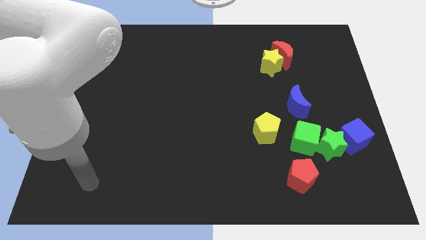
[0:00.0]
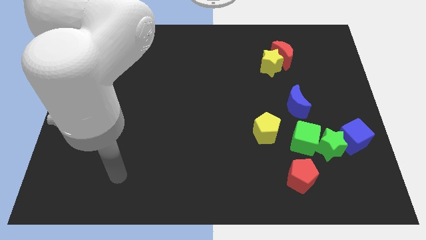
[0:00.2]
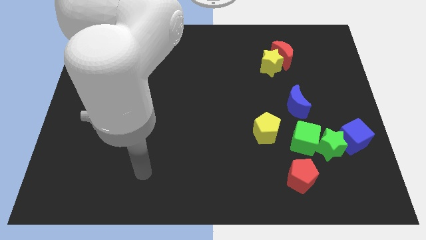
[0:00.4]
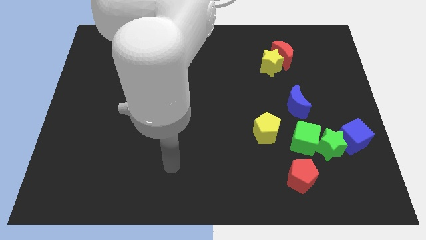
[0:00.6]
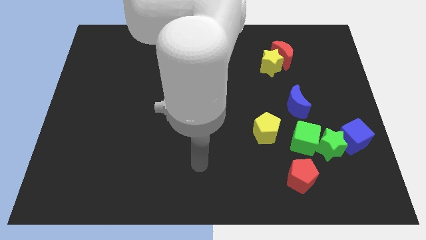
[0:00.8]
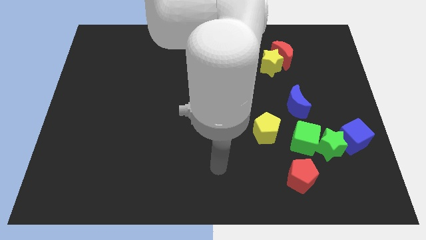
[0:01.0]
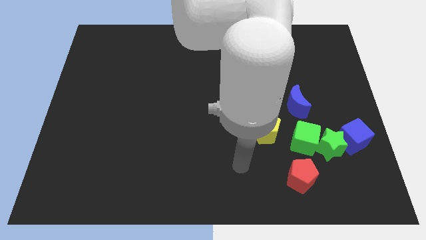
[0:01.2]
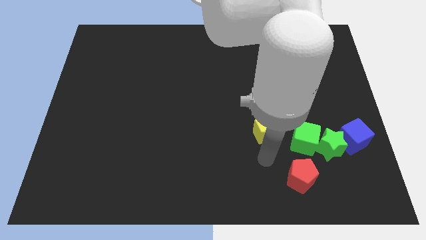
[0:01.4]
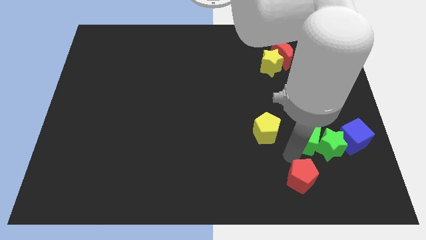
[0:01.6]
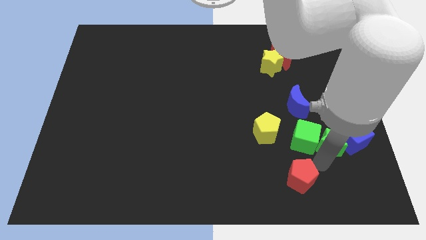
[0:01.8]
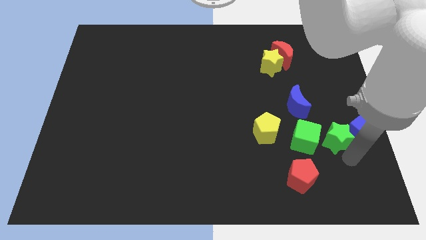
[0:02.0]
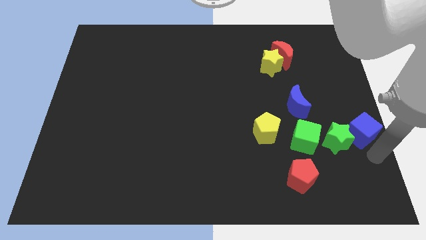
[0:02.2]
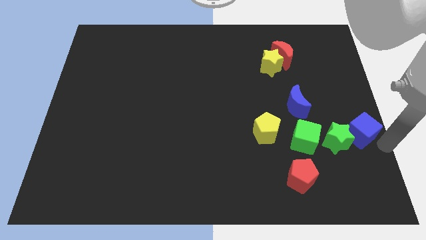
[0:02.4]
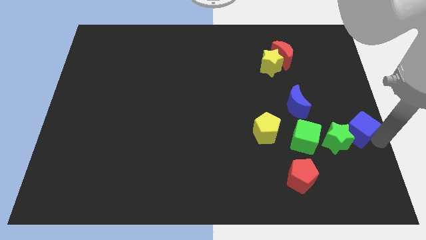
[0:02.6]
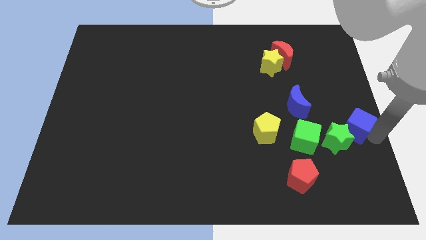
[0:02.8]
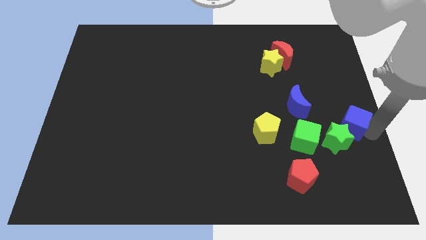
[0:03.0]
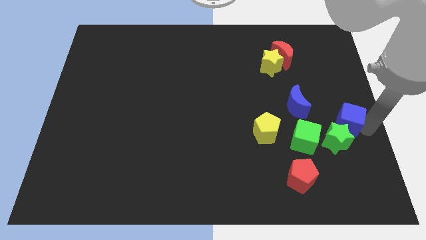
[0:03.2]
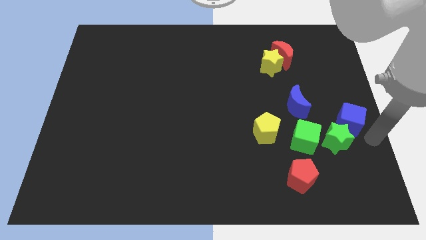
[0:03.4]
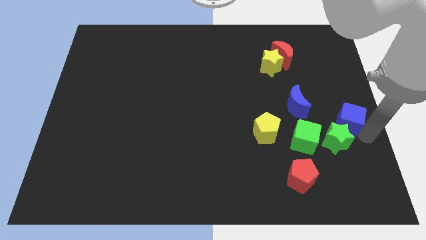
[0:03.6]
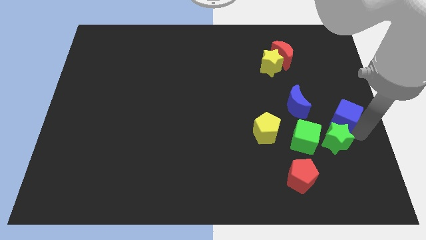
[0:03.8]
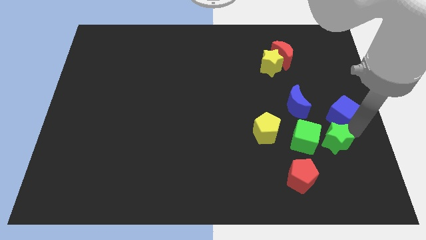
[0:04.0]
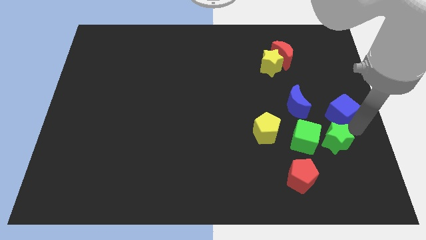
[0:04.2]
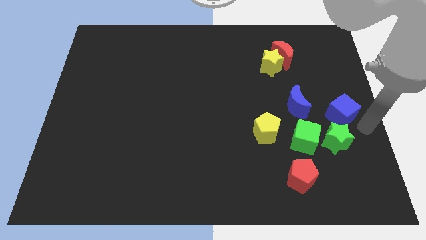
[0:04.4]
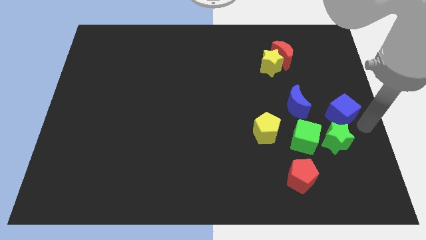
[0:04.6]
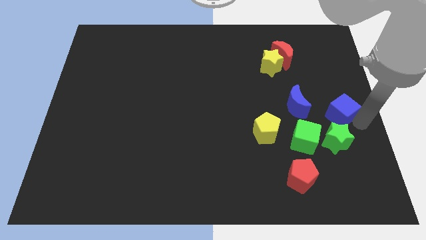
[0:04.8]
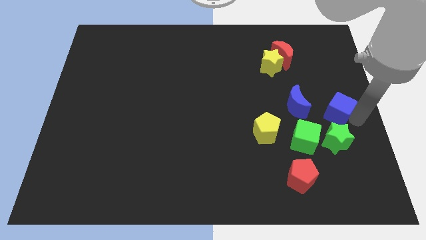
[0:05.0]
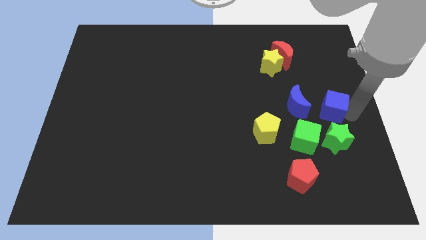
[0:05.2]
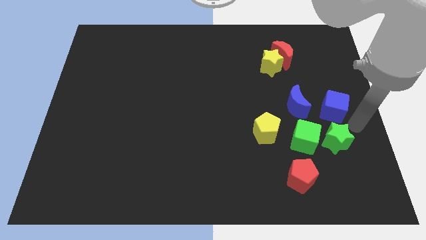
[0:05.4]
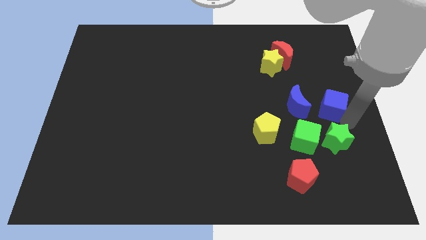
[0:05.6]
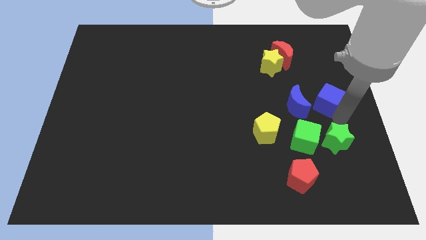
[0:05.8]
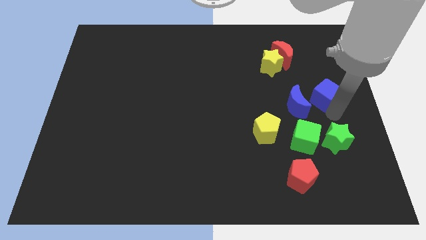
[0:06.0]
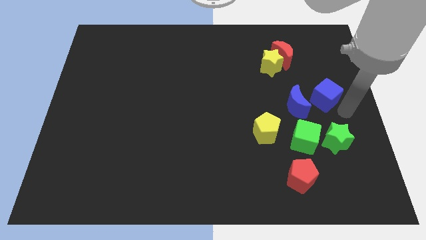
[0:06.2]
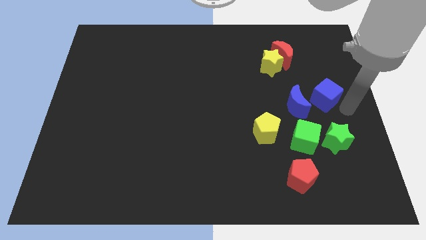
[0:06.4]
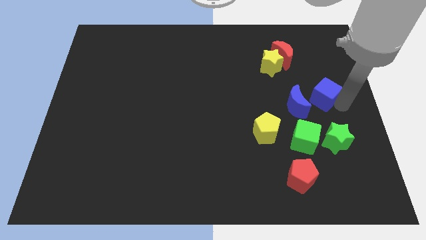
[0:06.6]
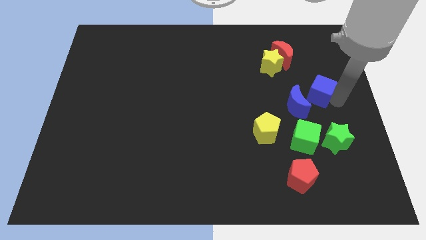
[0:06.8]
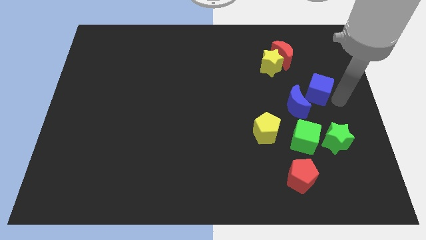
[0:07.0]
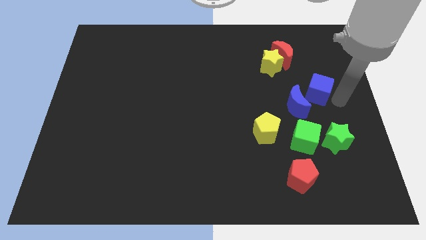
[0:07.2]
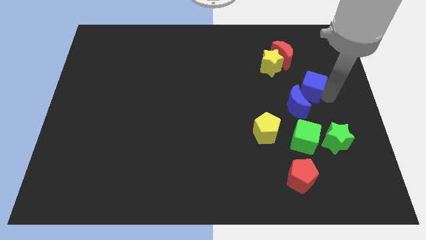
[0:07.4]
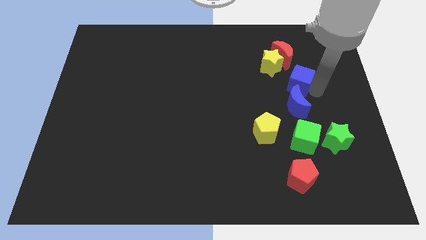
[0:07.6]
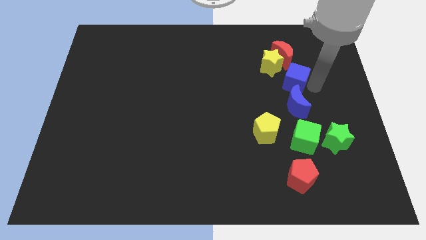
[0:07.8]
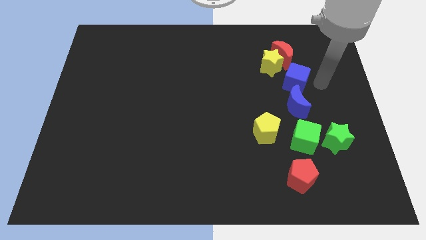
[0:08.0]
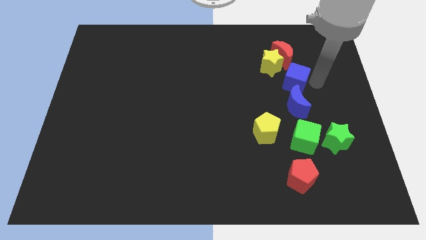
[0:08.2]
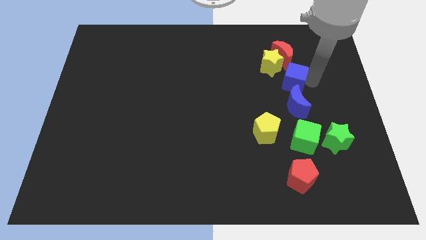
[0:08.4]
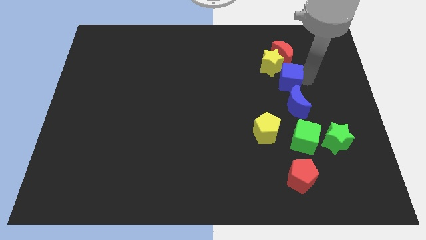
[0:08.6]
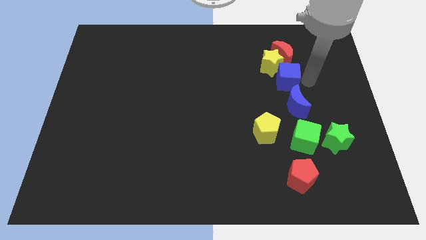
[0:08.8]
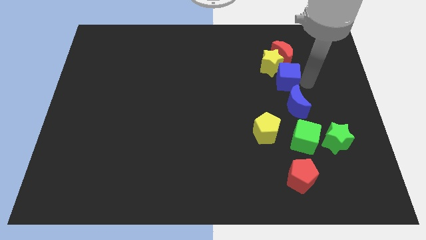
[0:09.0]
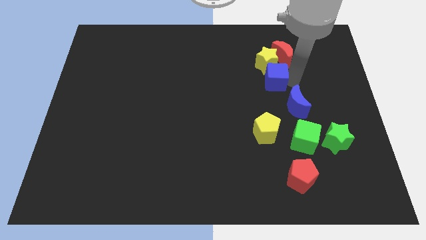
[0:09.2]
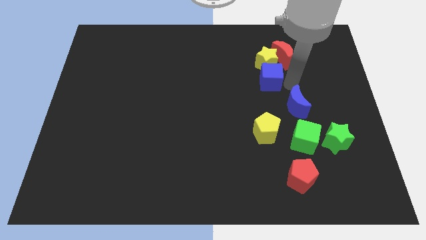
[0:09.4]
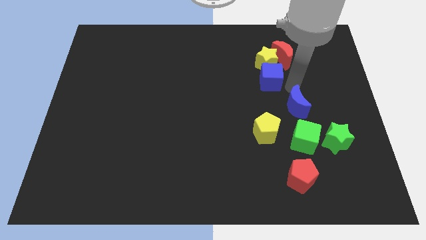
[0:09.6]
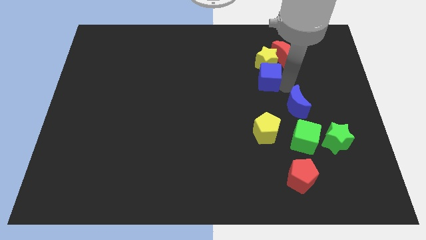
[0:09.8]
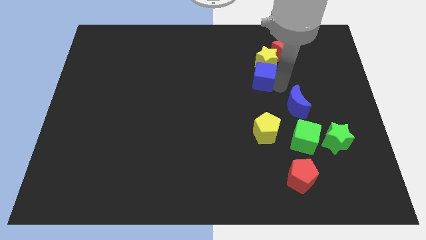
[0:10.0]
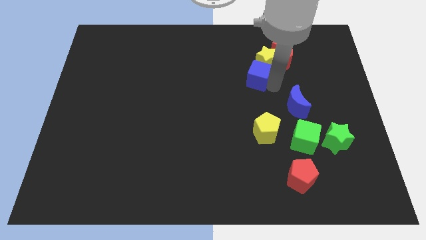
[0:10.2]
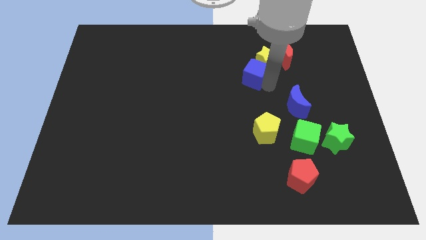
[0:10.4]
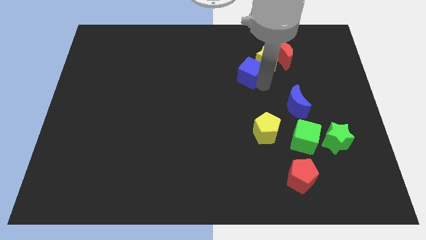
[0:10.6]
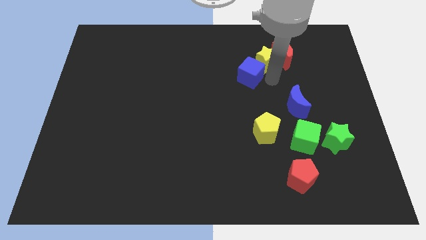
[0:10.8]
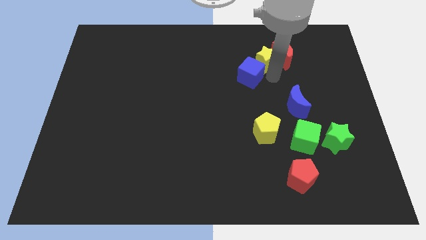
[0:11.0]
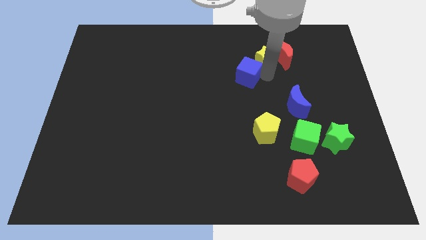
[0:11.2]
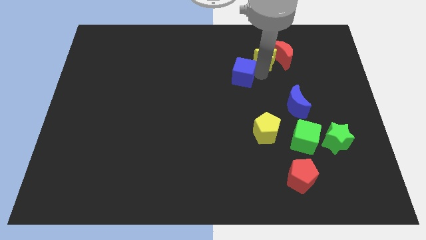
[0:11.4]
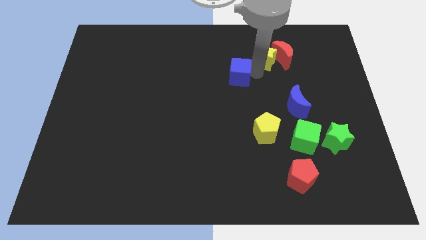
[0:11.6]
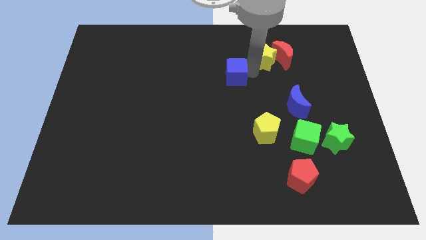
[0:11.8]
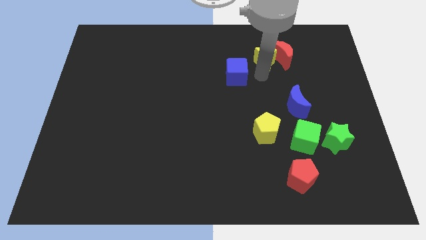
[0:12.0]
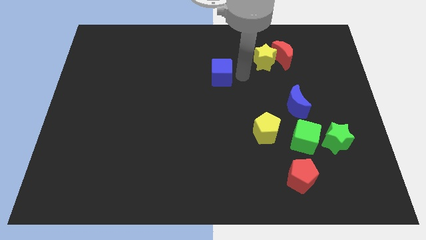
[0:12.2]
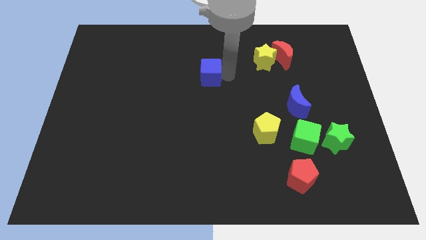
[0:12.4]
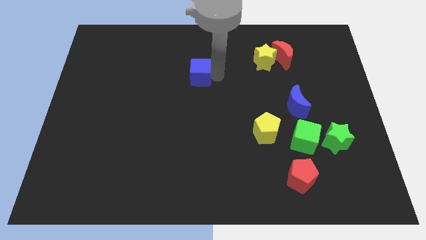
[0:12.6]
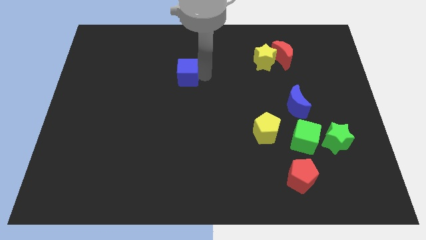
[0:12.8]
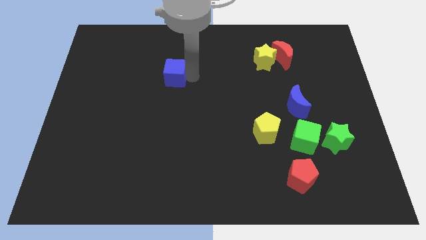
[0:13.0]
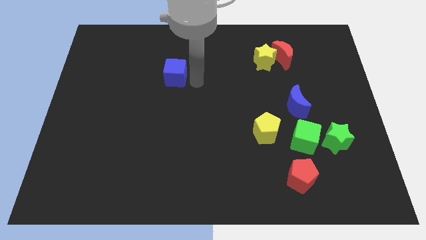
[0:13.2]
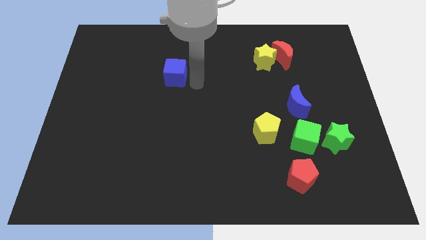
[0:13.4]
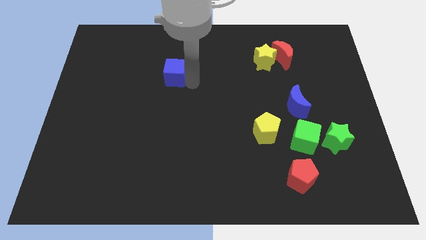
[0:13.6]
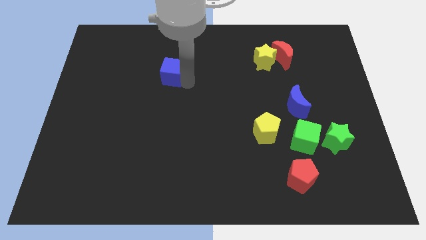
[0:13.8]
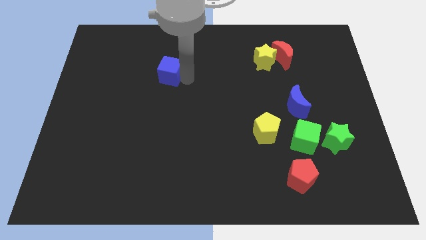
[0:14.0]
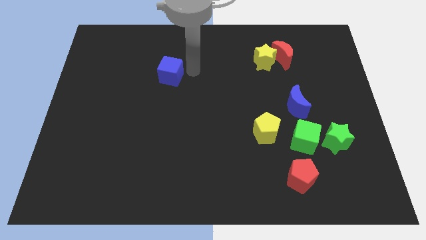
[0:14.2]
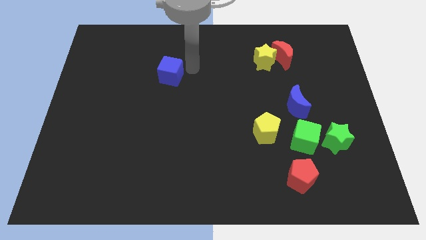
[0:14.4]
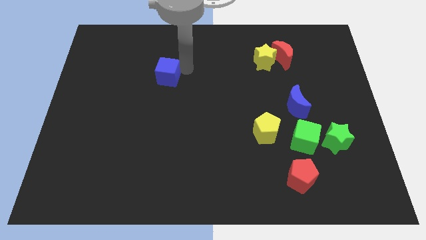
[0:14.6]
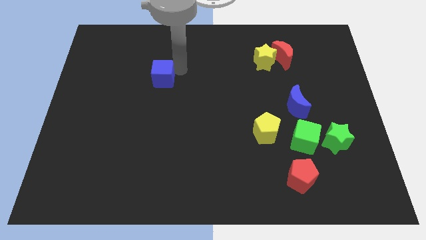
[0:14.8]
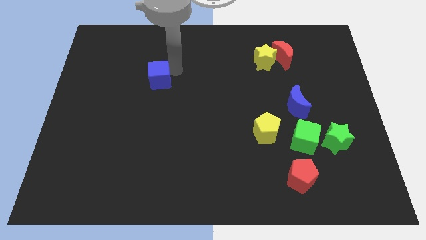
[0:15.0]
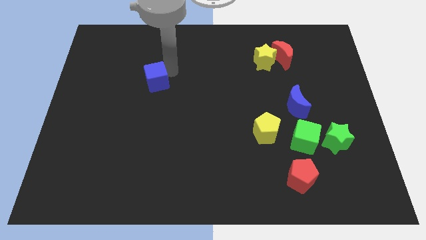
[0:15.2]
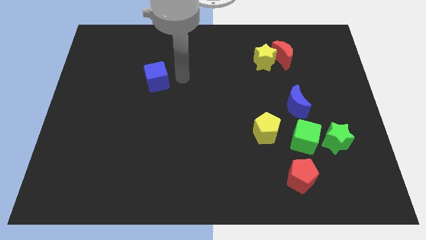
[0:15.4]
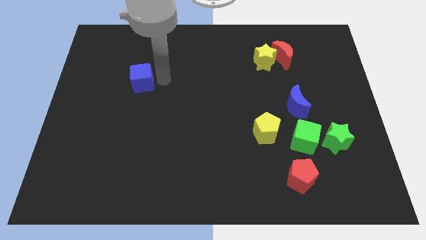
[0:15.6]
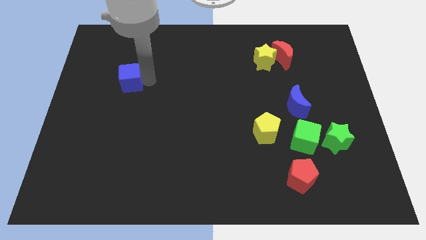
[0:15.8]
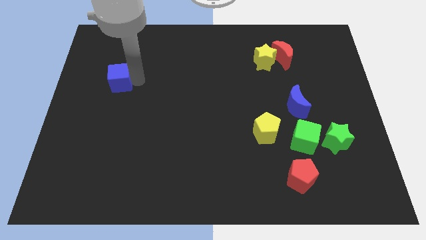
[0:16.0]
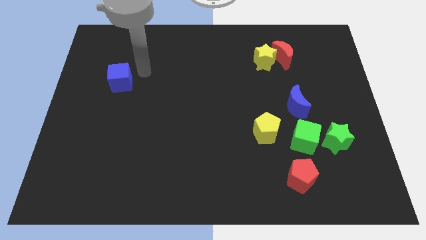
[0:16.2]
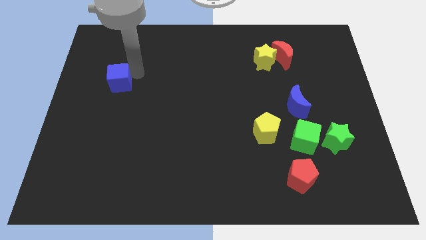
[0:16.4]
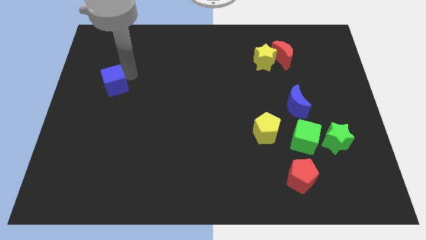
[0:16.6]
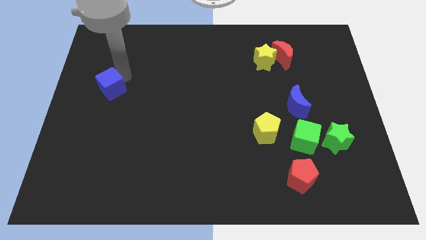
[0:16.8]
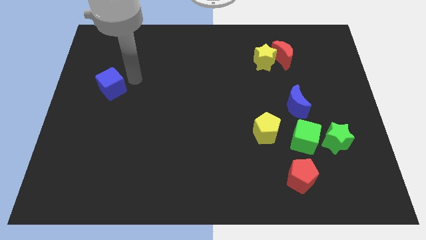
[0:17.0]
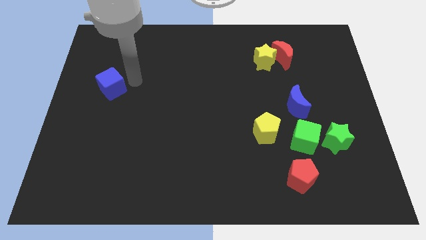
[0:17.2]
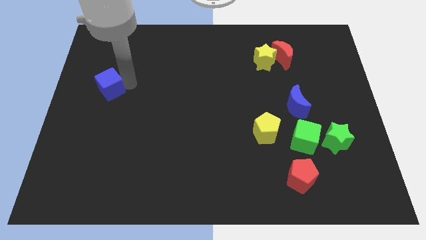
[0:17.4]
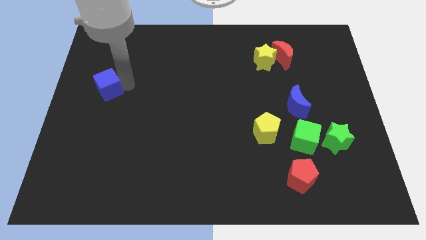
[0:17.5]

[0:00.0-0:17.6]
push the blue cube to the left side
